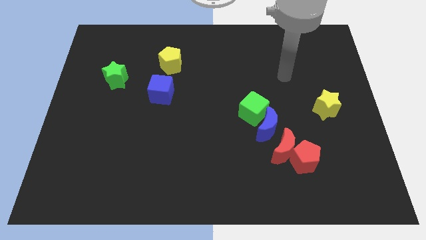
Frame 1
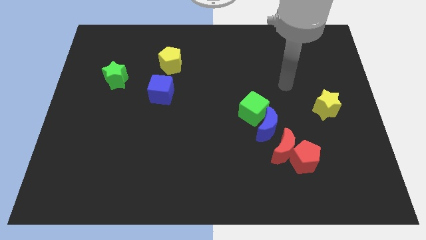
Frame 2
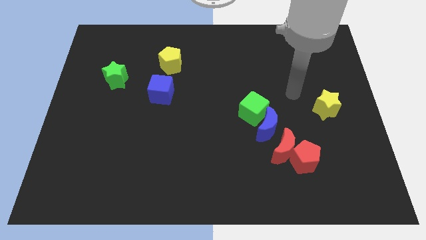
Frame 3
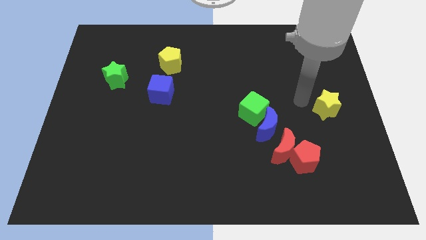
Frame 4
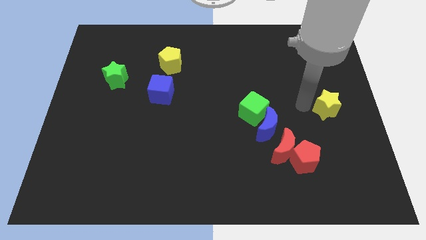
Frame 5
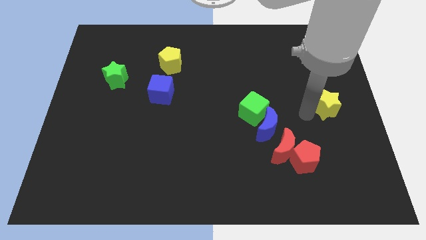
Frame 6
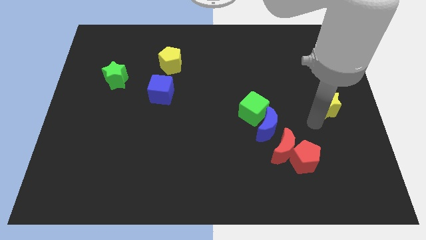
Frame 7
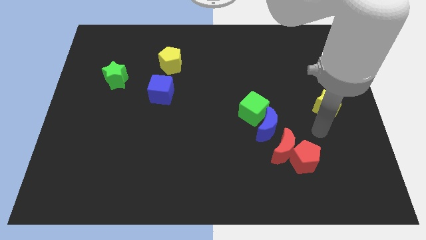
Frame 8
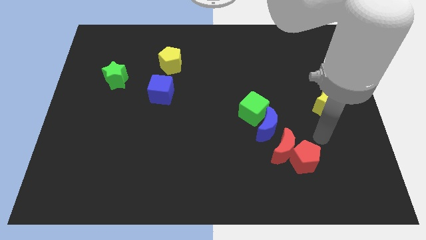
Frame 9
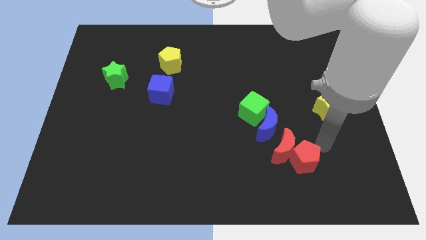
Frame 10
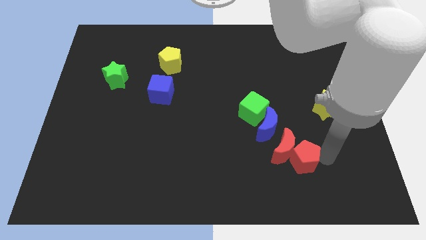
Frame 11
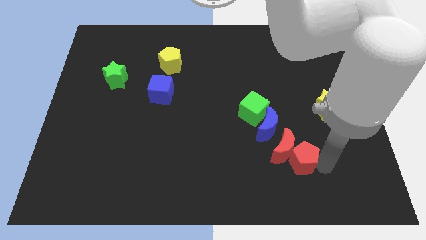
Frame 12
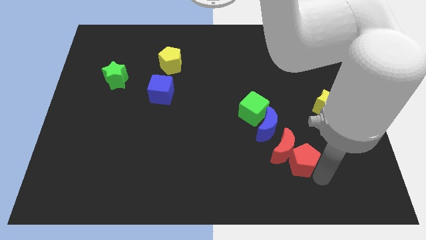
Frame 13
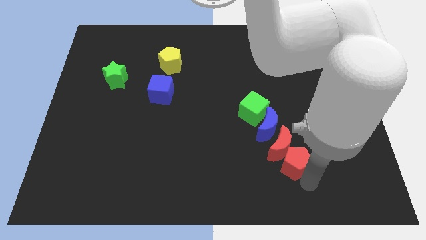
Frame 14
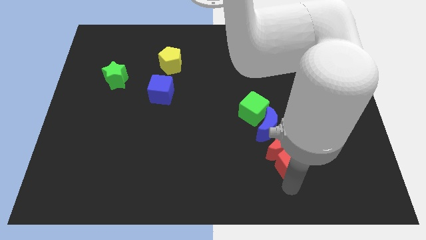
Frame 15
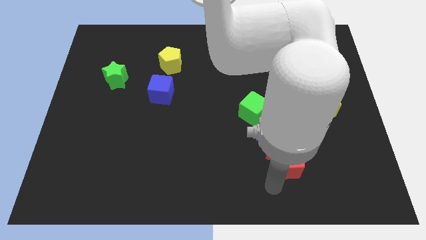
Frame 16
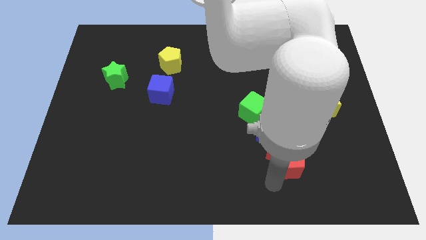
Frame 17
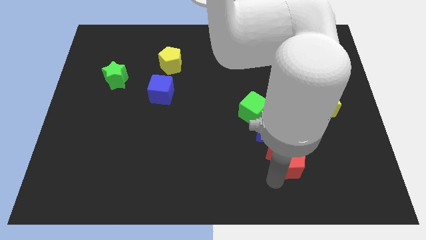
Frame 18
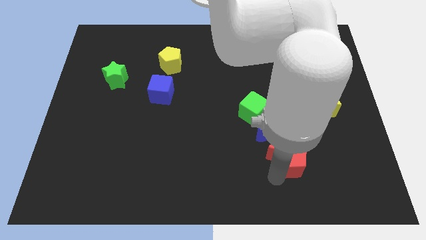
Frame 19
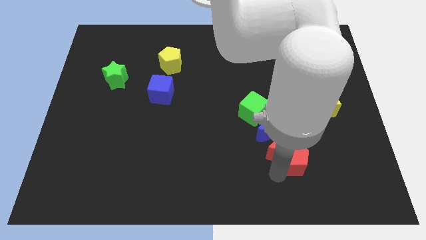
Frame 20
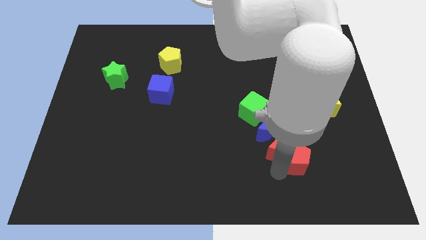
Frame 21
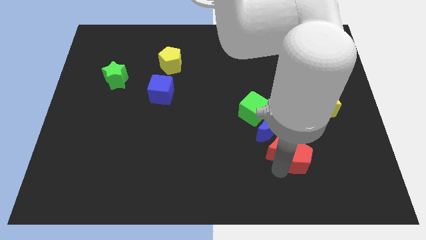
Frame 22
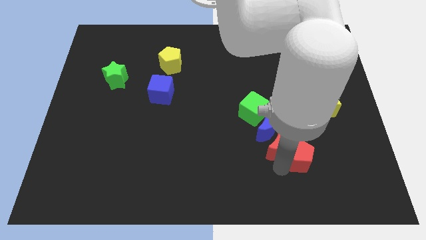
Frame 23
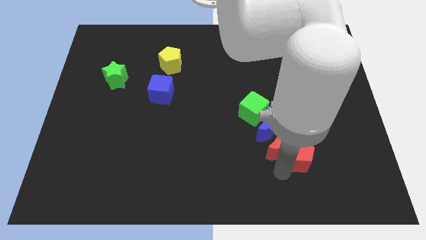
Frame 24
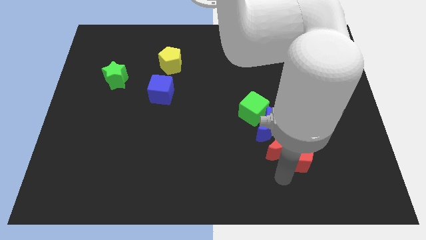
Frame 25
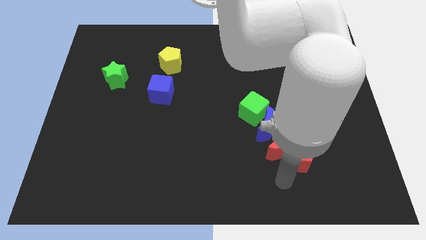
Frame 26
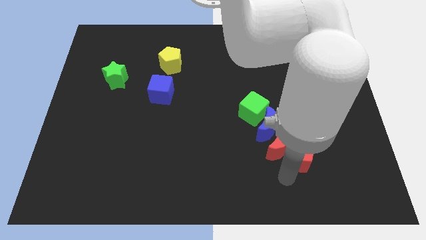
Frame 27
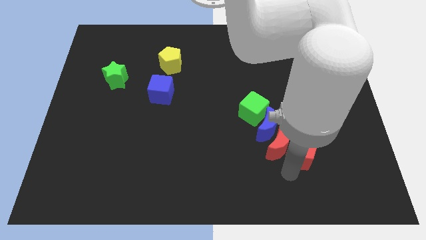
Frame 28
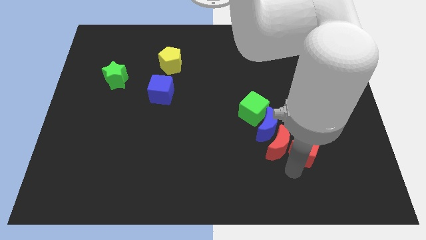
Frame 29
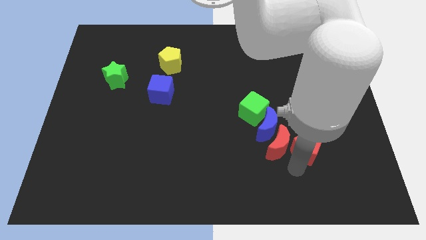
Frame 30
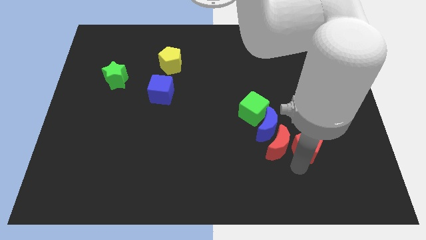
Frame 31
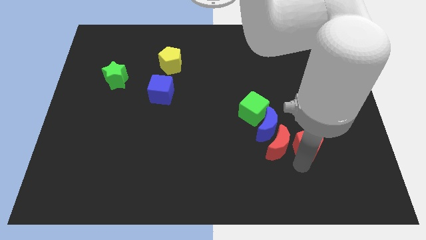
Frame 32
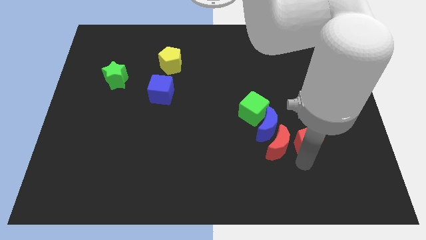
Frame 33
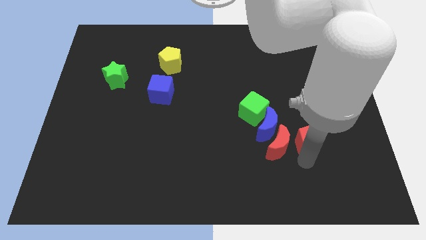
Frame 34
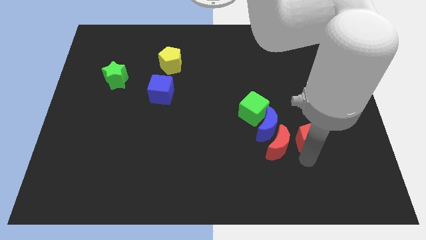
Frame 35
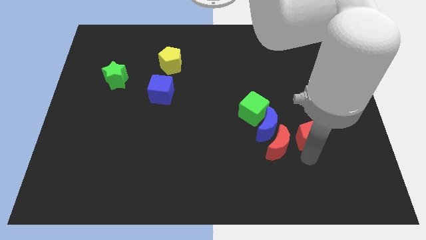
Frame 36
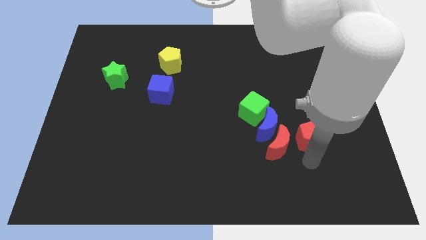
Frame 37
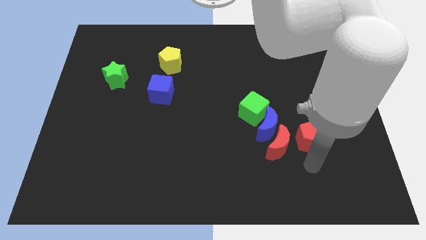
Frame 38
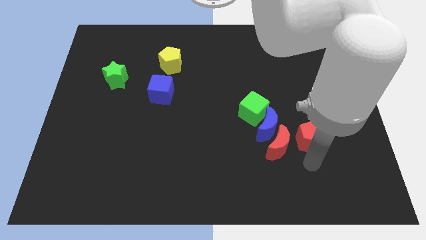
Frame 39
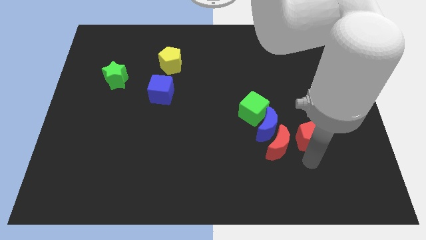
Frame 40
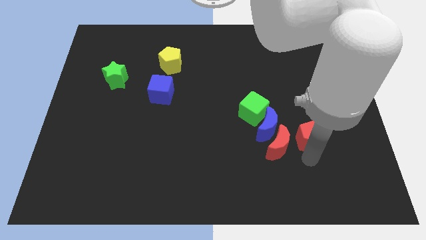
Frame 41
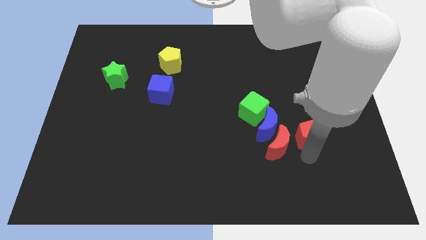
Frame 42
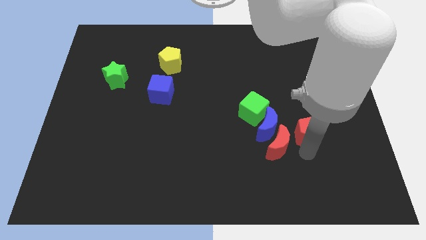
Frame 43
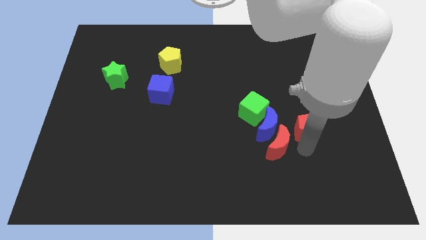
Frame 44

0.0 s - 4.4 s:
push the red pentagon upwards slightly

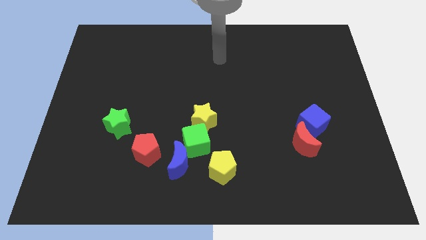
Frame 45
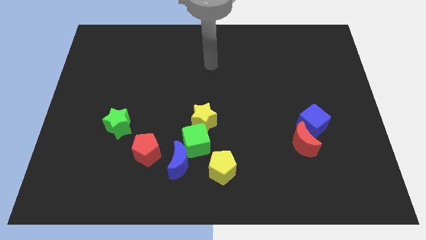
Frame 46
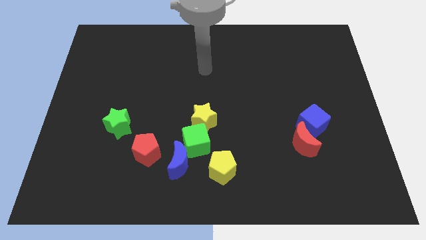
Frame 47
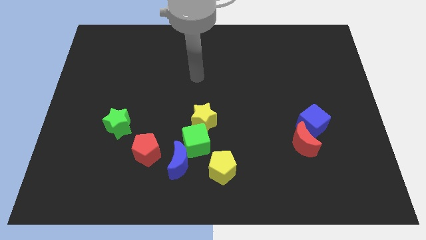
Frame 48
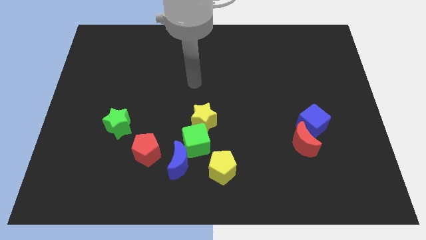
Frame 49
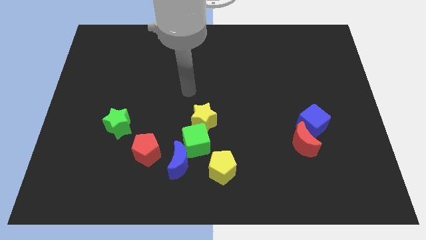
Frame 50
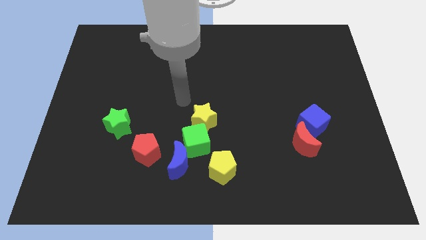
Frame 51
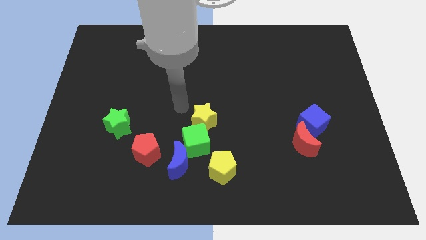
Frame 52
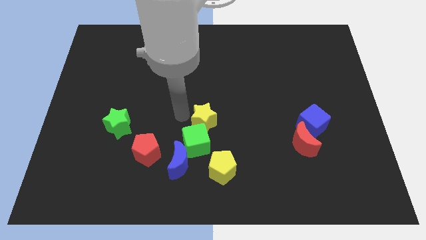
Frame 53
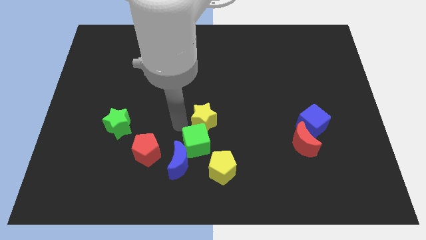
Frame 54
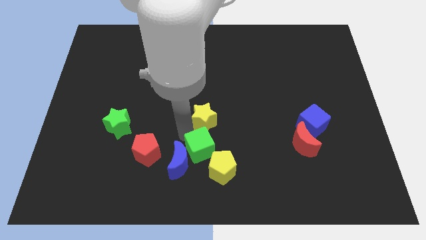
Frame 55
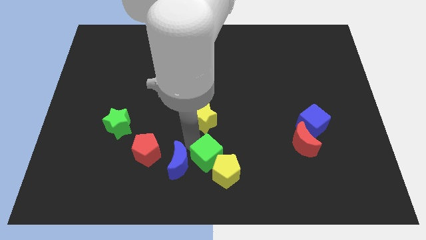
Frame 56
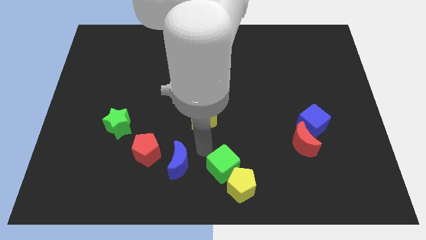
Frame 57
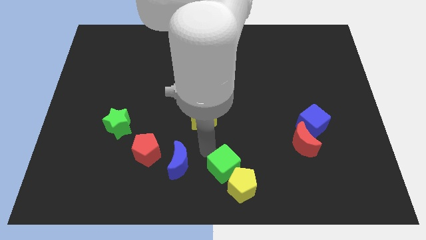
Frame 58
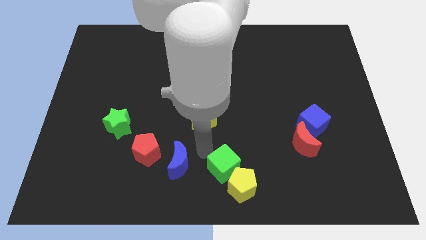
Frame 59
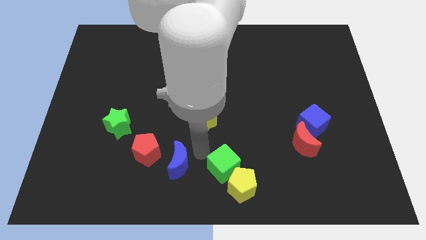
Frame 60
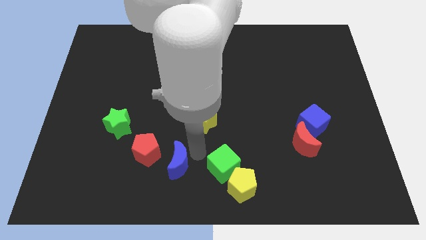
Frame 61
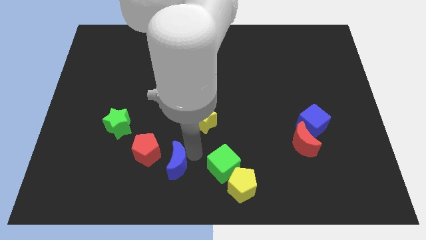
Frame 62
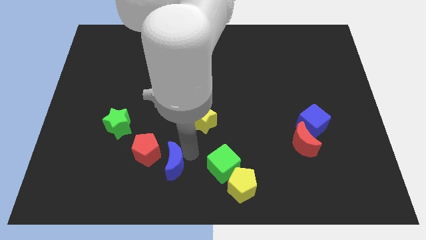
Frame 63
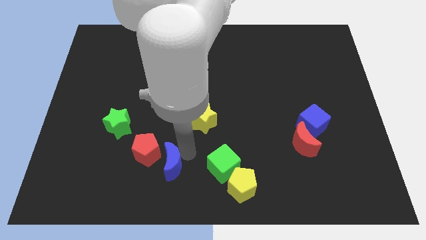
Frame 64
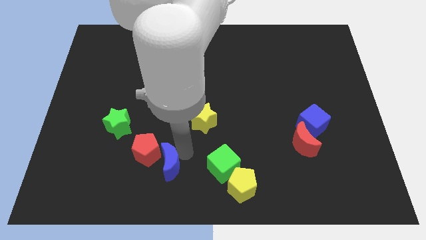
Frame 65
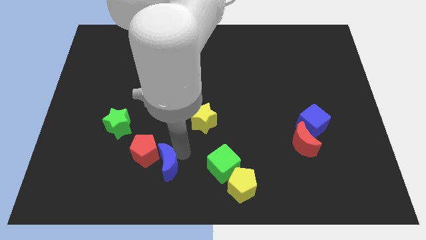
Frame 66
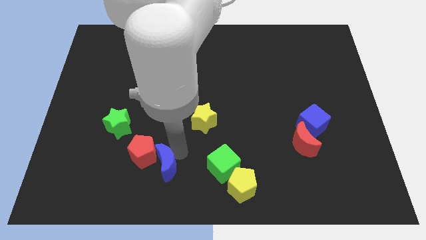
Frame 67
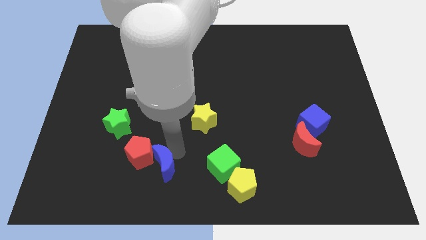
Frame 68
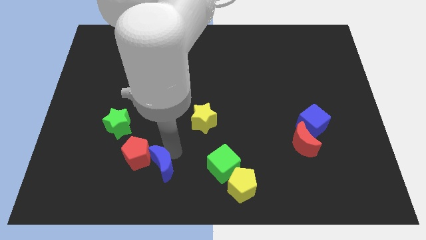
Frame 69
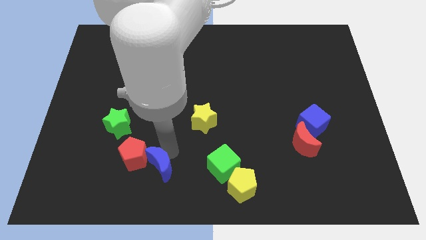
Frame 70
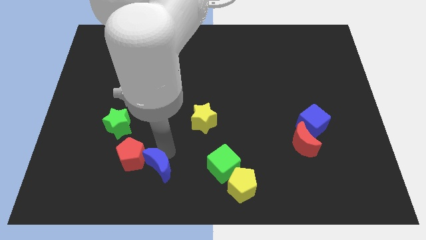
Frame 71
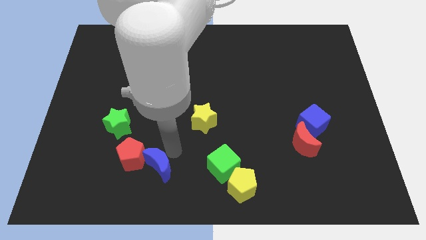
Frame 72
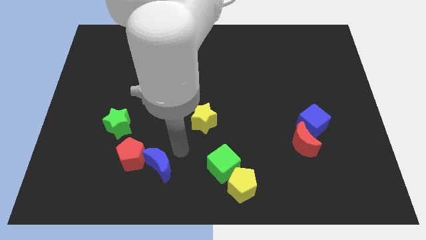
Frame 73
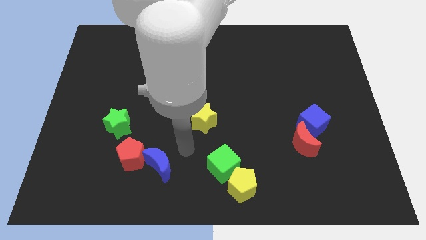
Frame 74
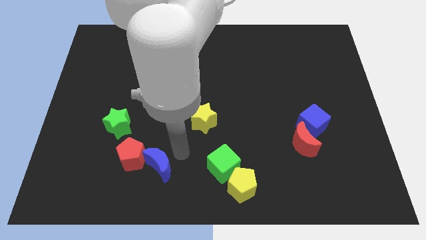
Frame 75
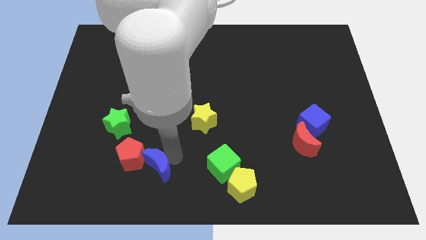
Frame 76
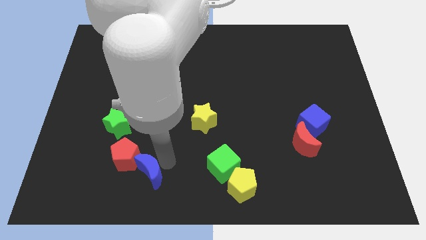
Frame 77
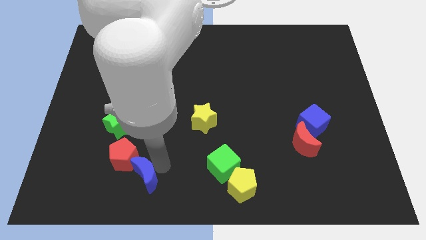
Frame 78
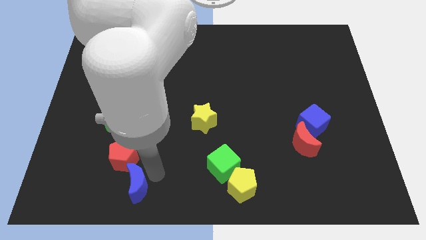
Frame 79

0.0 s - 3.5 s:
move the blue moon to the left a bit
